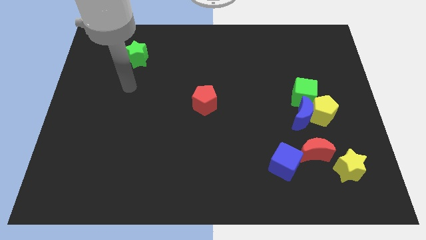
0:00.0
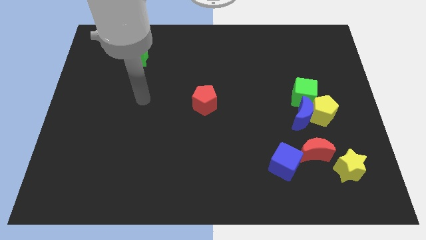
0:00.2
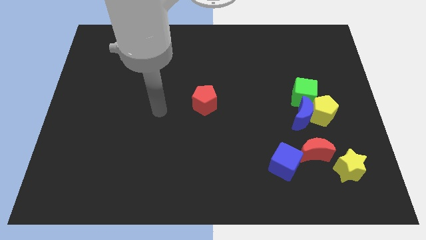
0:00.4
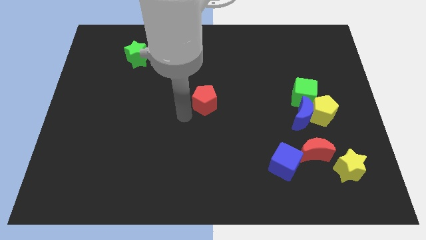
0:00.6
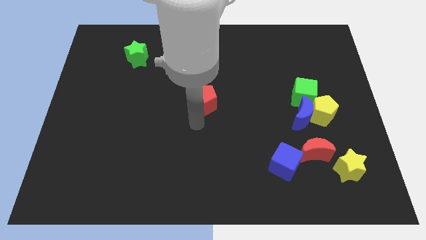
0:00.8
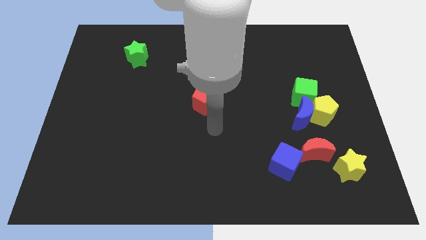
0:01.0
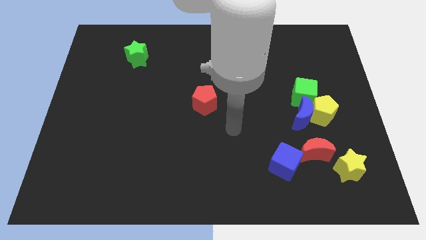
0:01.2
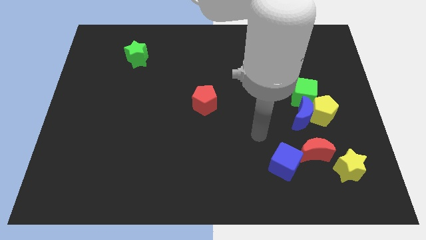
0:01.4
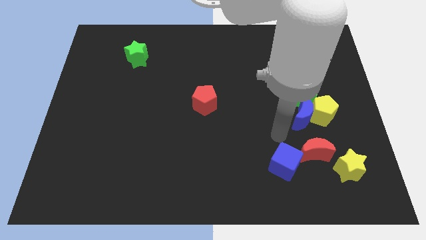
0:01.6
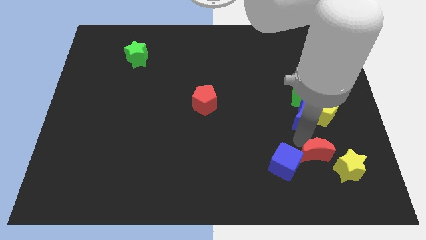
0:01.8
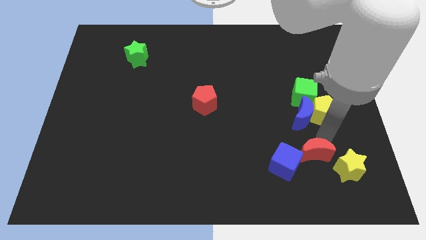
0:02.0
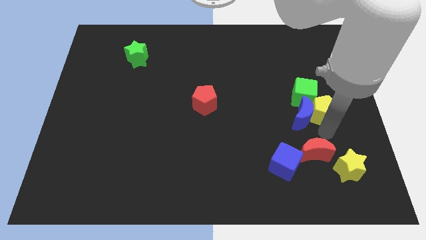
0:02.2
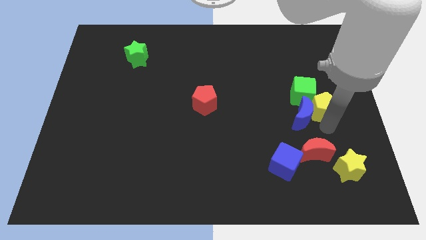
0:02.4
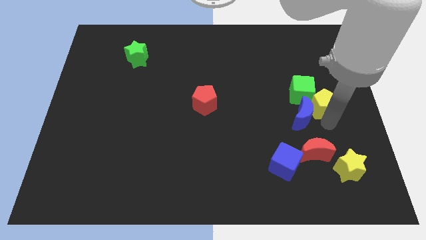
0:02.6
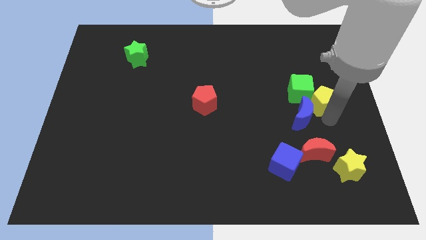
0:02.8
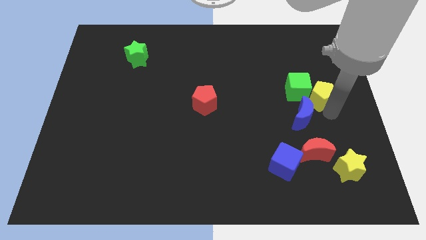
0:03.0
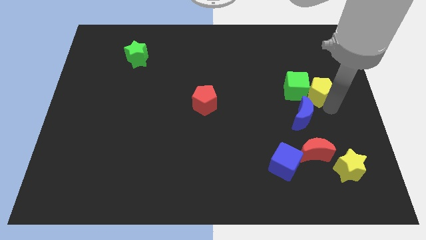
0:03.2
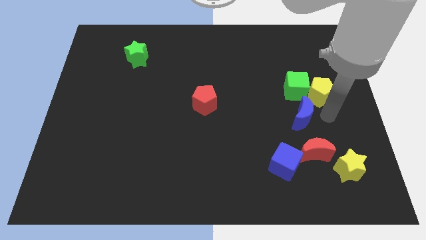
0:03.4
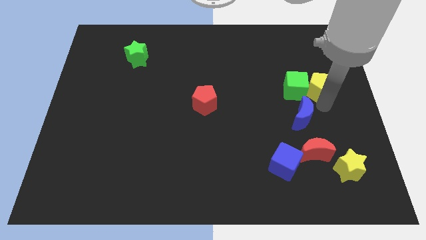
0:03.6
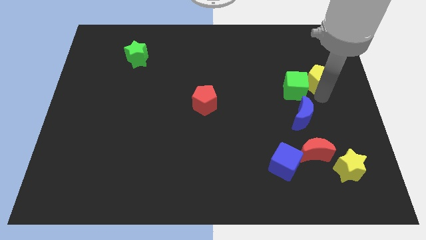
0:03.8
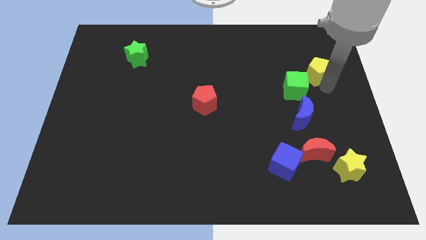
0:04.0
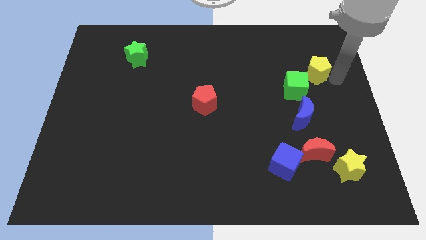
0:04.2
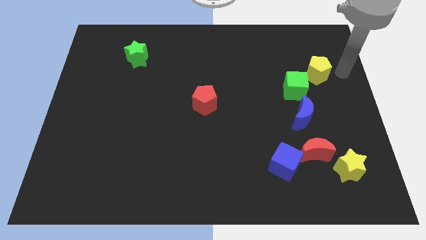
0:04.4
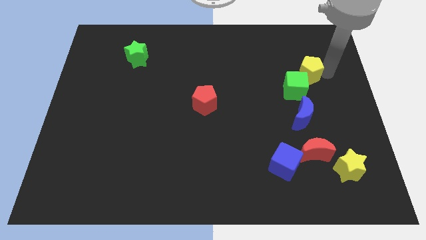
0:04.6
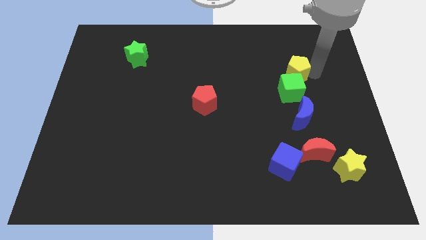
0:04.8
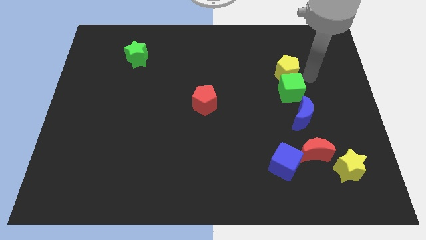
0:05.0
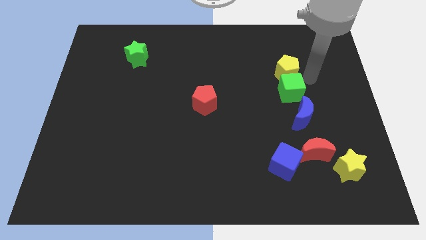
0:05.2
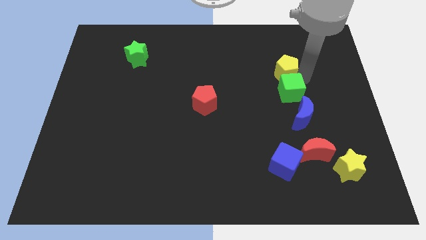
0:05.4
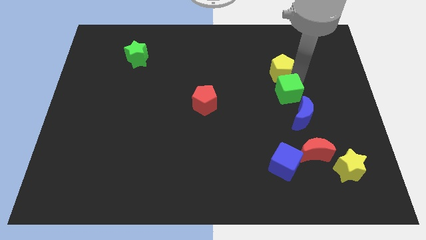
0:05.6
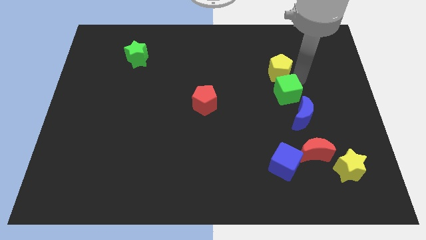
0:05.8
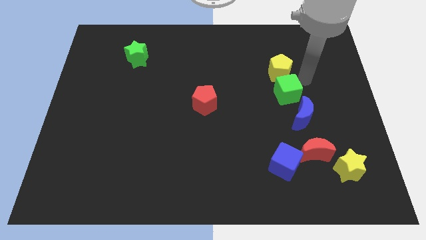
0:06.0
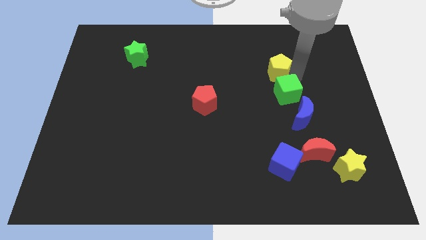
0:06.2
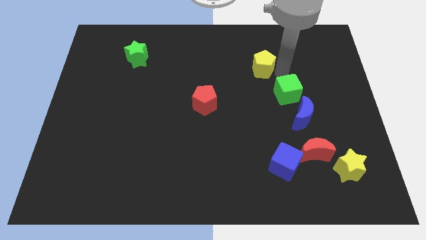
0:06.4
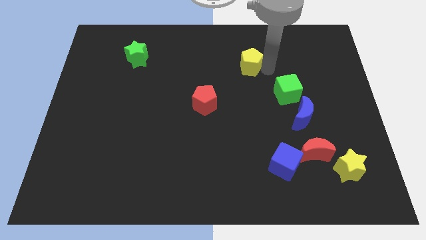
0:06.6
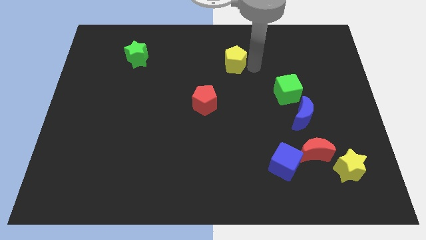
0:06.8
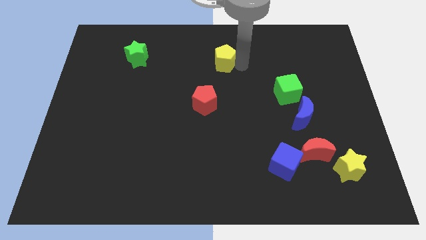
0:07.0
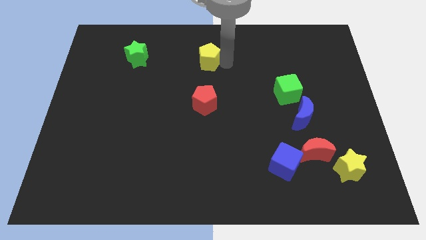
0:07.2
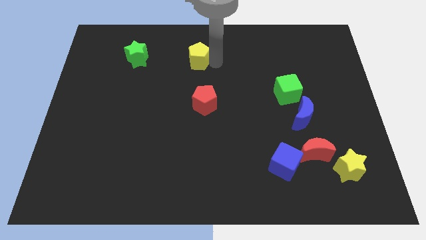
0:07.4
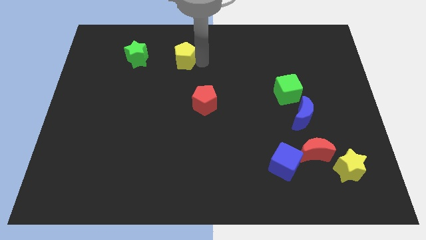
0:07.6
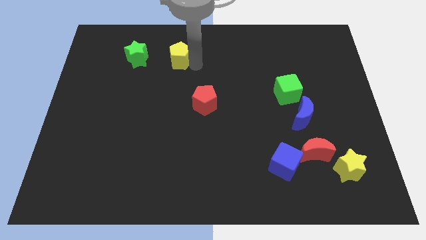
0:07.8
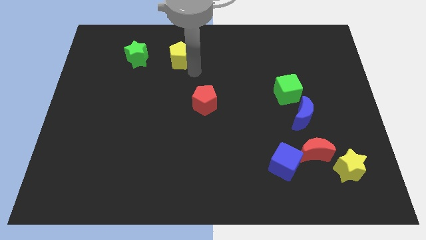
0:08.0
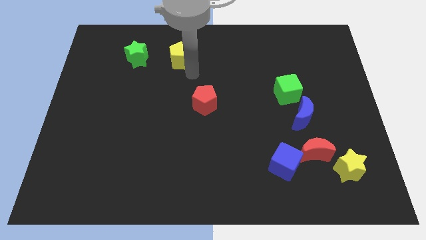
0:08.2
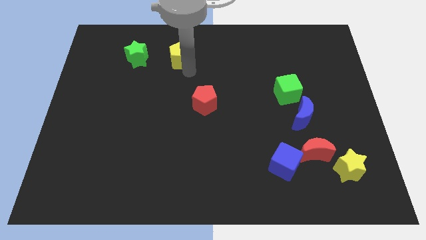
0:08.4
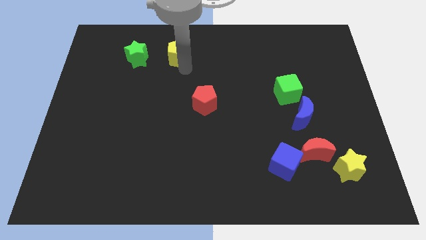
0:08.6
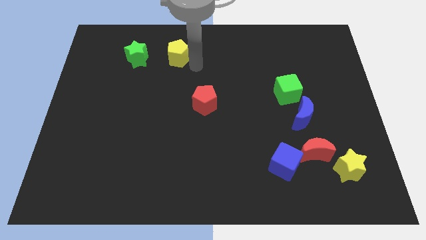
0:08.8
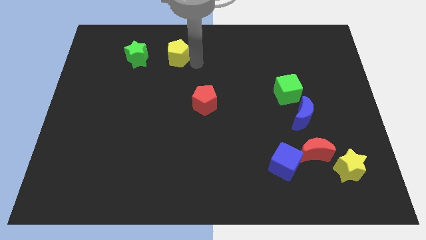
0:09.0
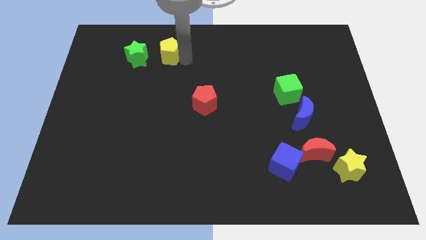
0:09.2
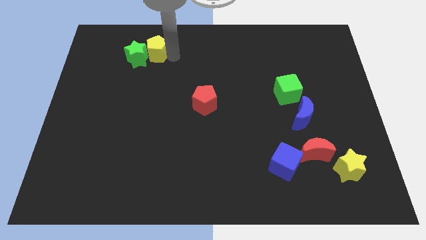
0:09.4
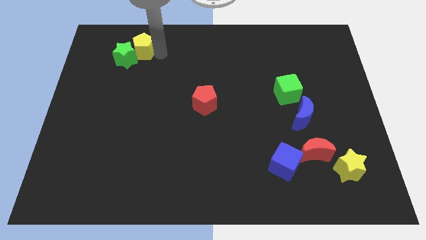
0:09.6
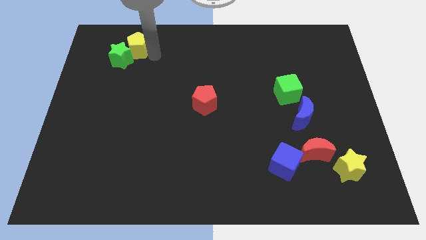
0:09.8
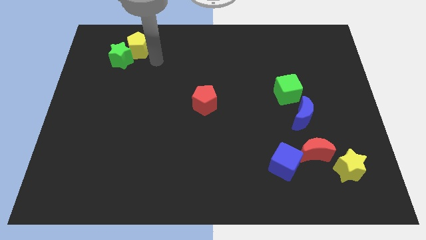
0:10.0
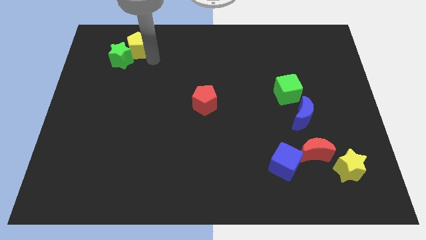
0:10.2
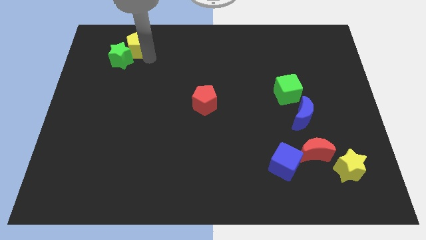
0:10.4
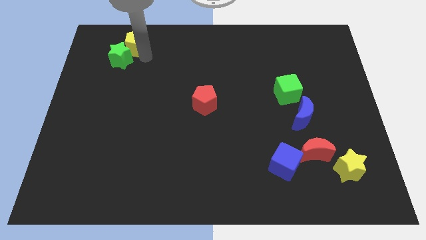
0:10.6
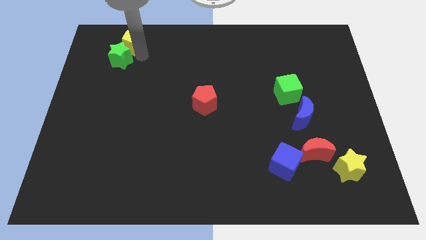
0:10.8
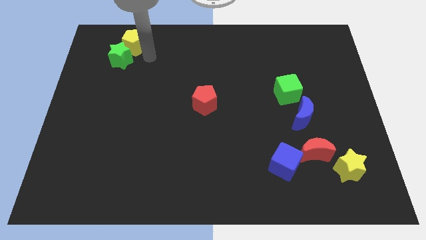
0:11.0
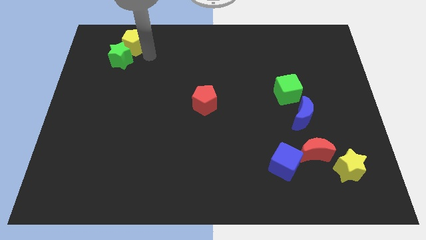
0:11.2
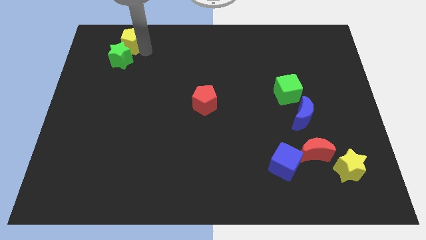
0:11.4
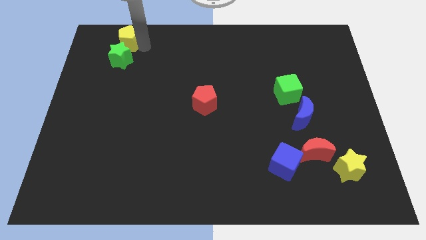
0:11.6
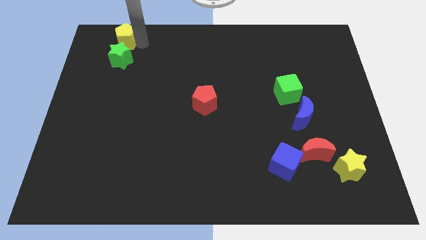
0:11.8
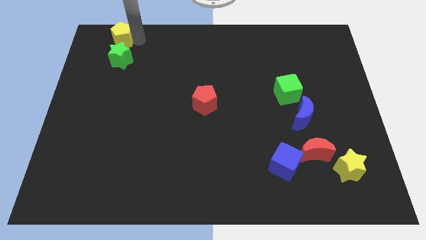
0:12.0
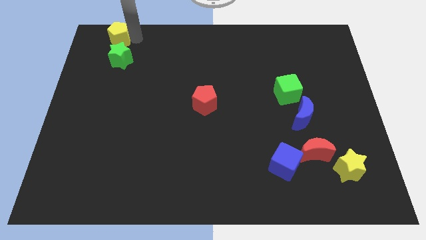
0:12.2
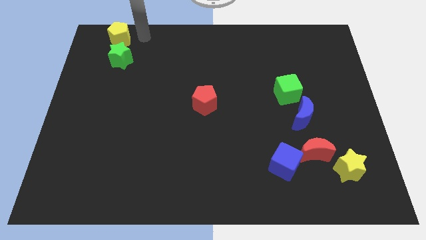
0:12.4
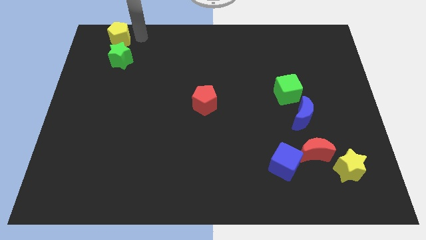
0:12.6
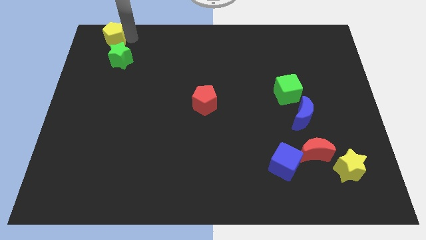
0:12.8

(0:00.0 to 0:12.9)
put the yellow pentagon to the top left of the board
